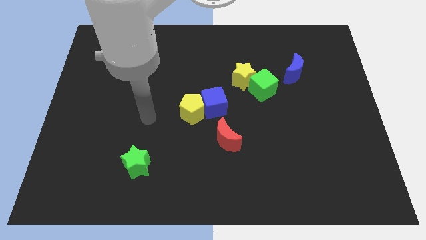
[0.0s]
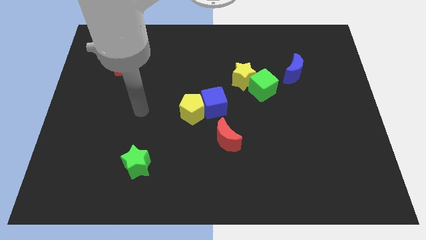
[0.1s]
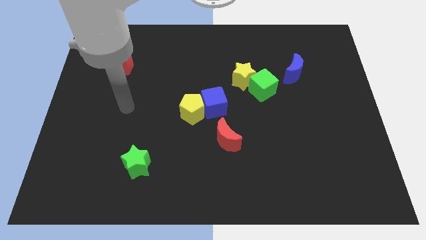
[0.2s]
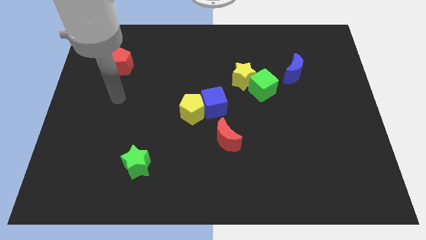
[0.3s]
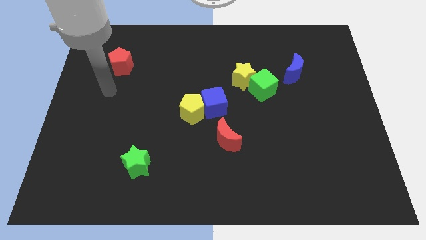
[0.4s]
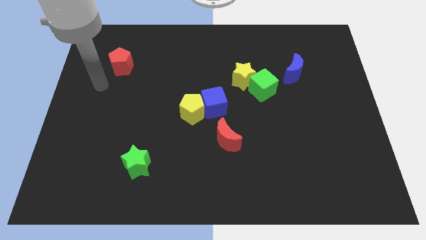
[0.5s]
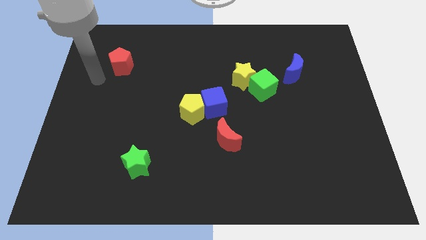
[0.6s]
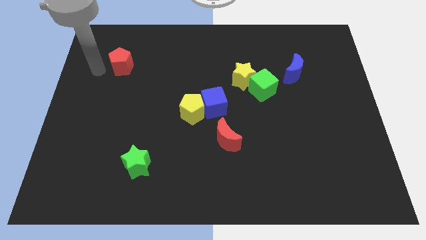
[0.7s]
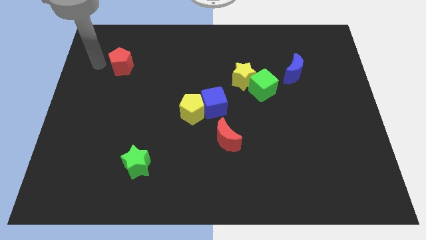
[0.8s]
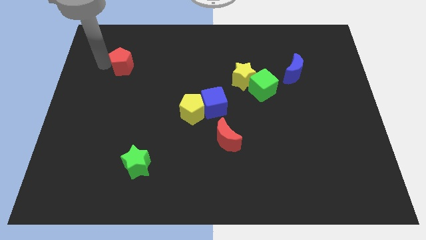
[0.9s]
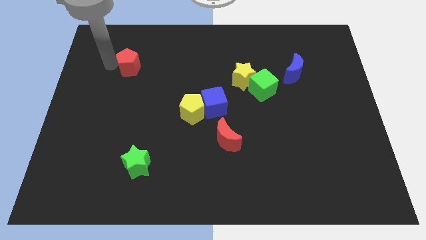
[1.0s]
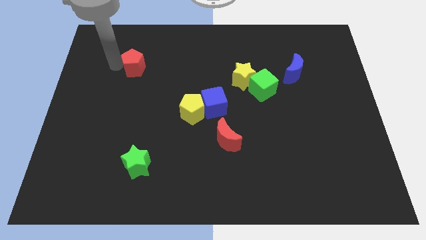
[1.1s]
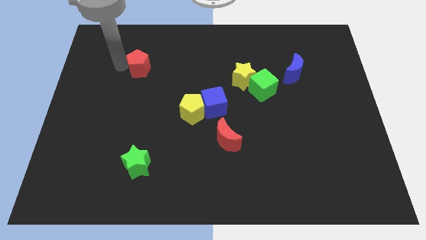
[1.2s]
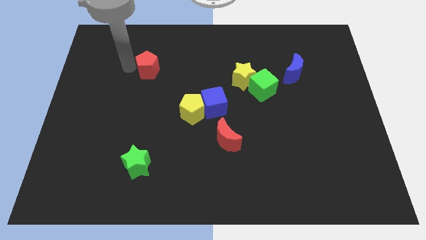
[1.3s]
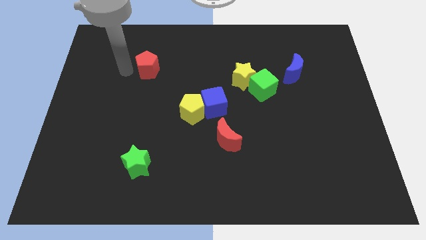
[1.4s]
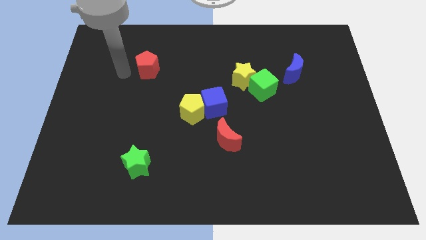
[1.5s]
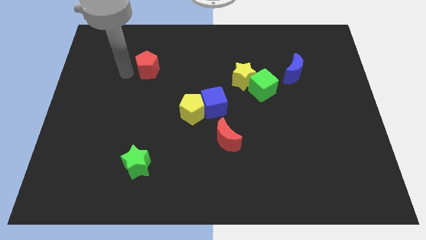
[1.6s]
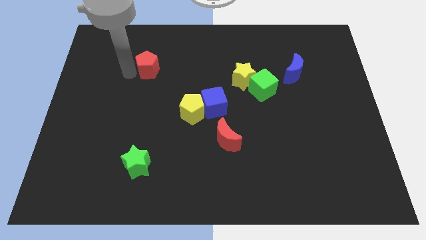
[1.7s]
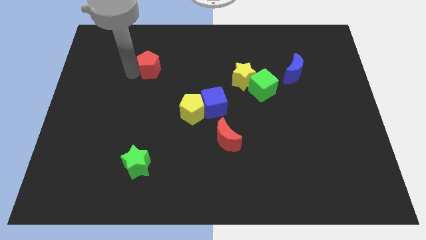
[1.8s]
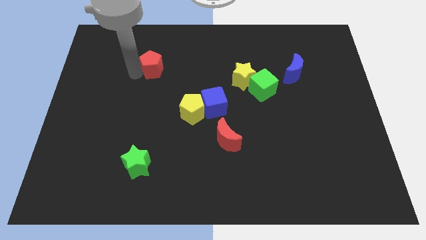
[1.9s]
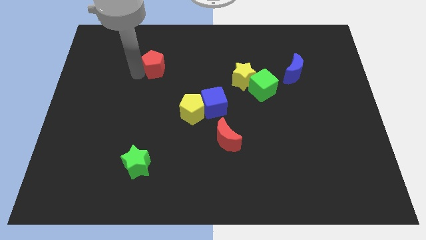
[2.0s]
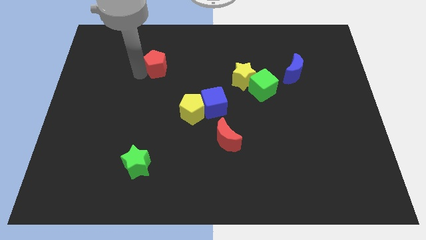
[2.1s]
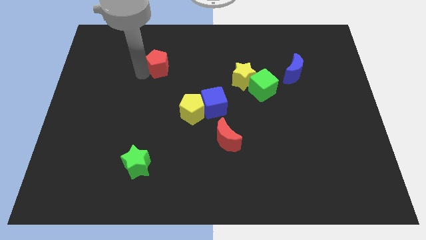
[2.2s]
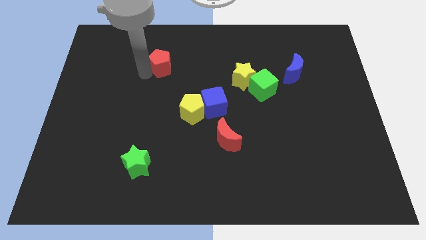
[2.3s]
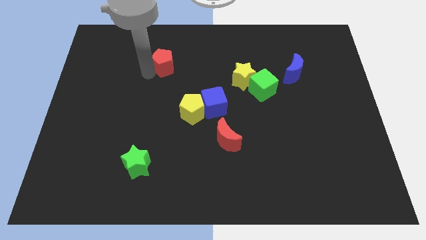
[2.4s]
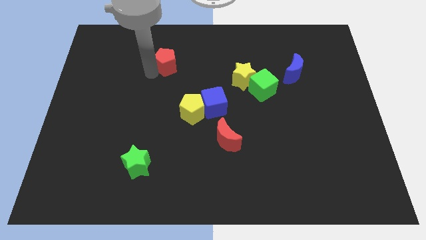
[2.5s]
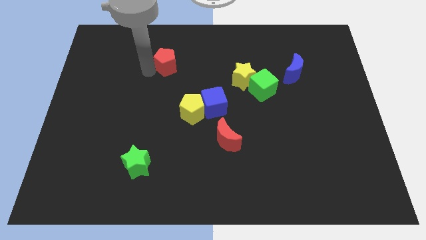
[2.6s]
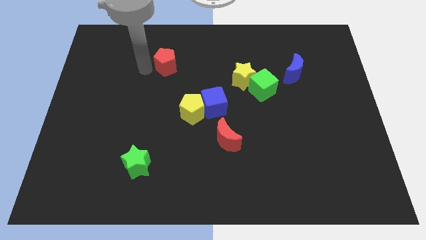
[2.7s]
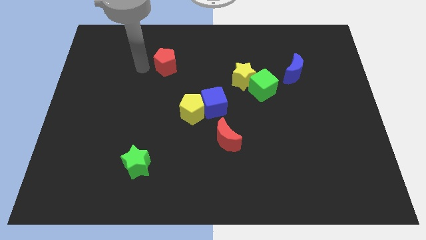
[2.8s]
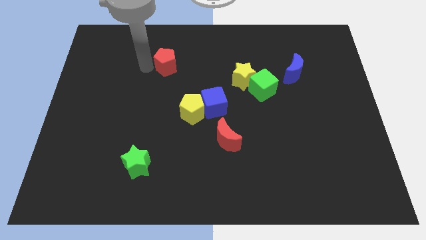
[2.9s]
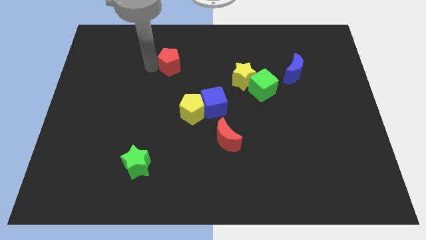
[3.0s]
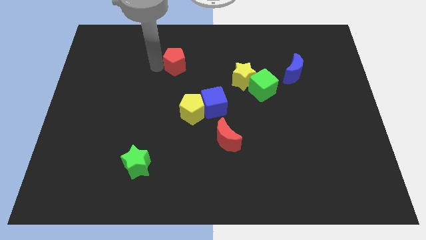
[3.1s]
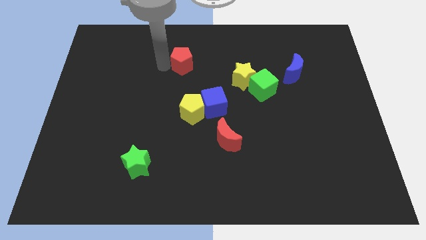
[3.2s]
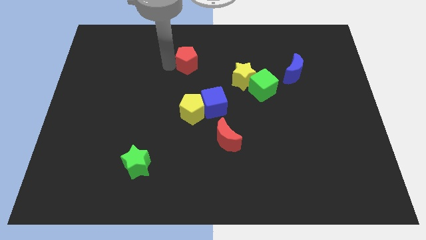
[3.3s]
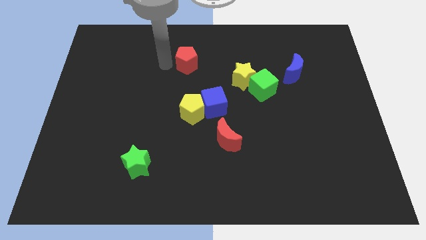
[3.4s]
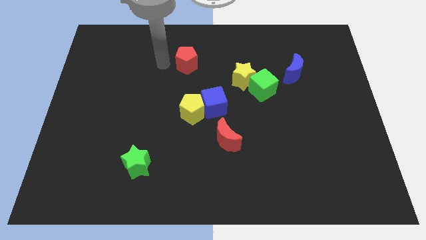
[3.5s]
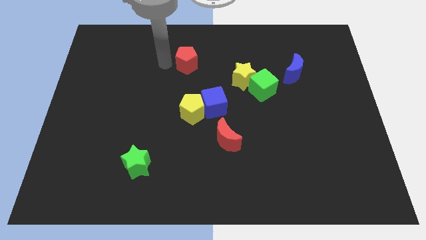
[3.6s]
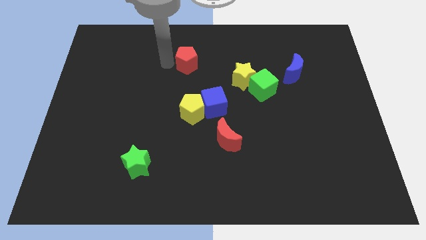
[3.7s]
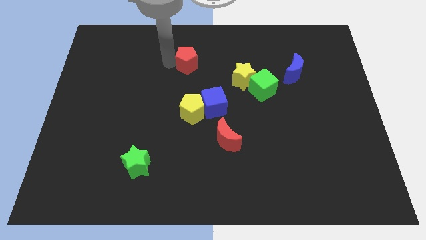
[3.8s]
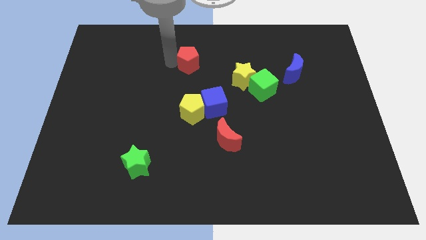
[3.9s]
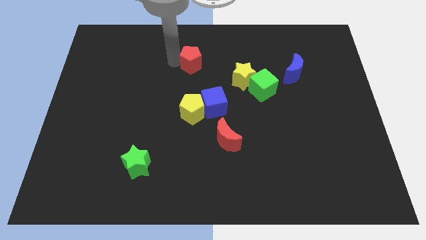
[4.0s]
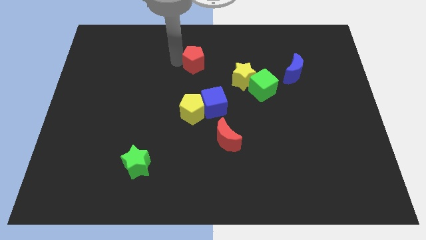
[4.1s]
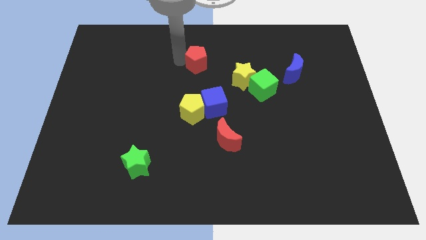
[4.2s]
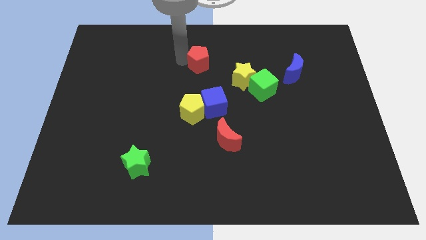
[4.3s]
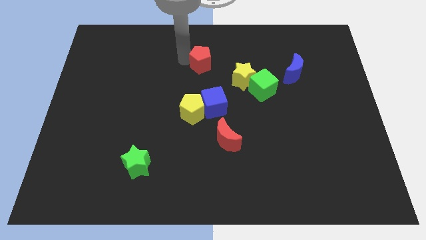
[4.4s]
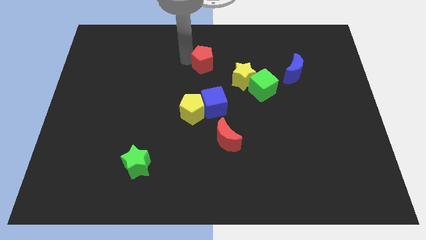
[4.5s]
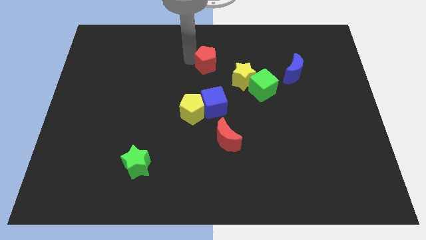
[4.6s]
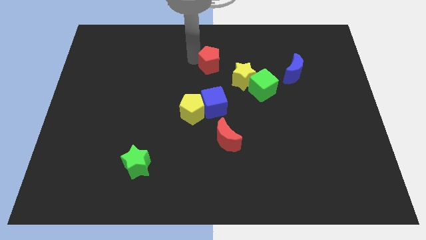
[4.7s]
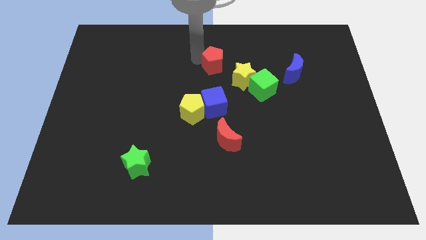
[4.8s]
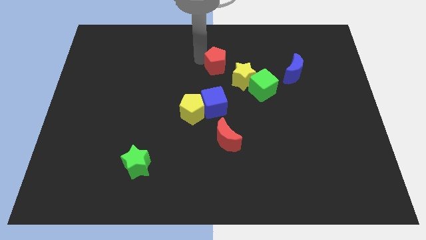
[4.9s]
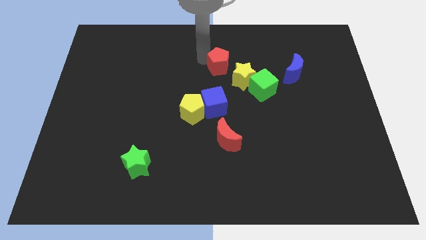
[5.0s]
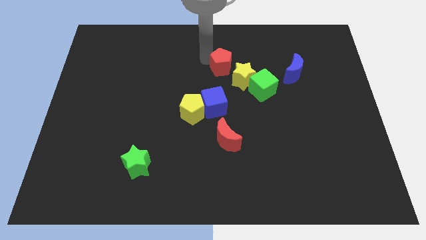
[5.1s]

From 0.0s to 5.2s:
push the red pentagon to the top left of the green cube

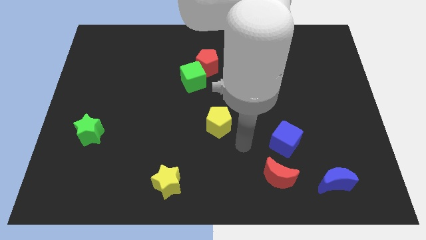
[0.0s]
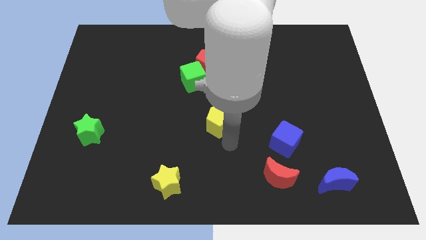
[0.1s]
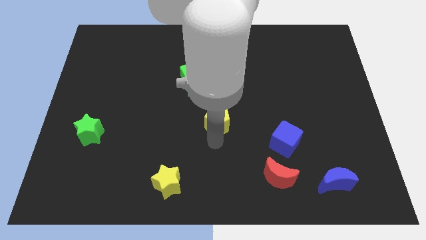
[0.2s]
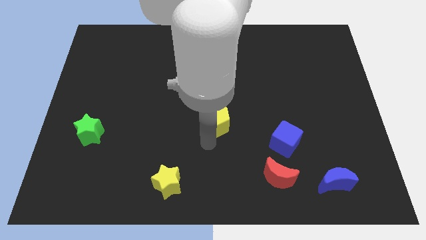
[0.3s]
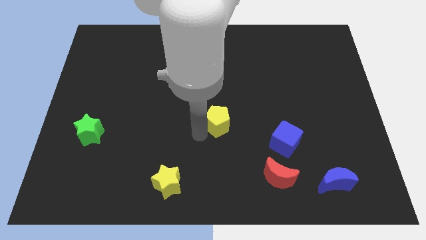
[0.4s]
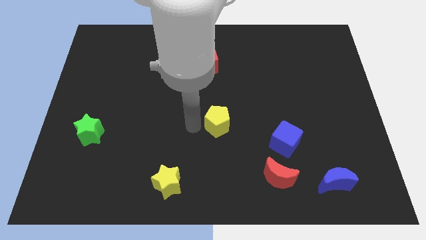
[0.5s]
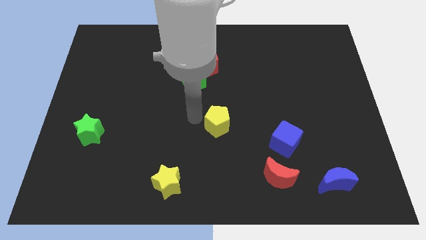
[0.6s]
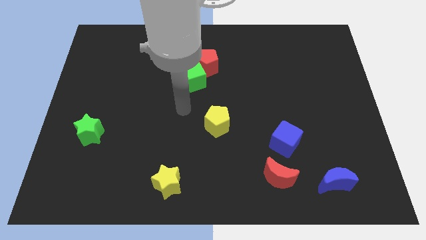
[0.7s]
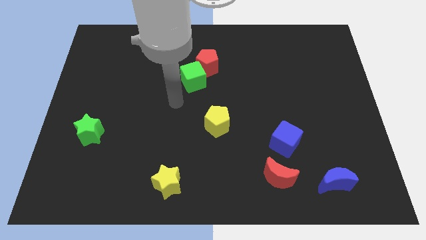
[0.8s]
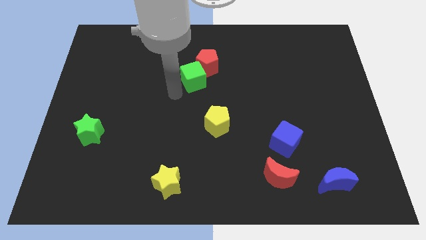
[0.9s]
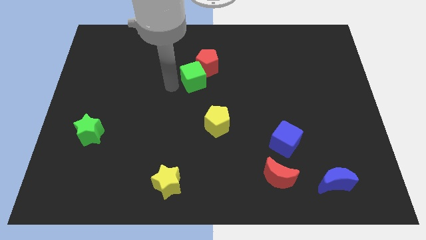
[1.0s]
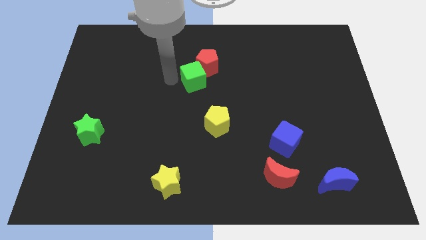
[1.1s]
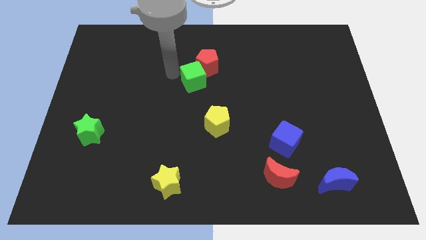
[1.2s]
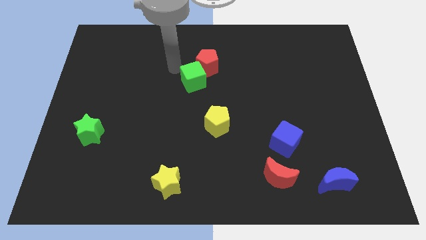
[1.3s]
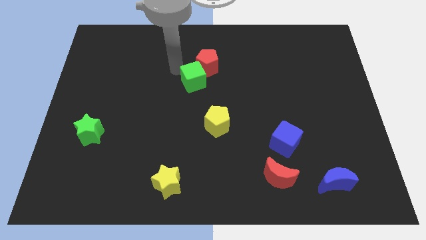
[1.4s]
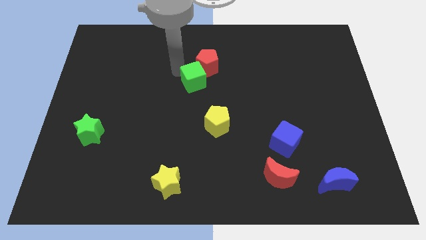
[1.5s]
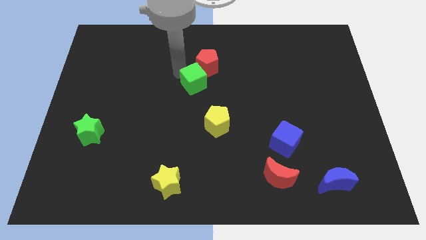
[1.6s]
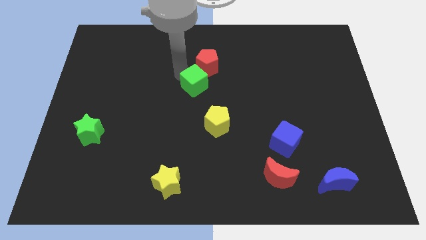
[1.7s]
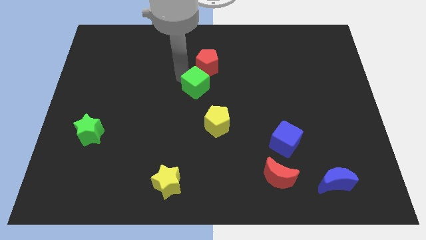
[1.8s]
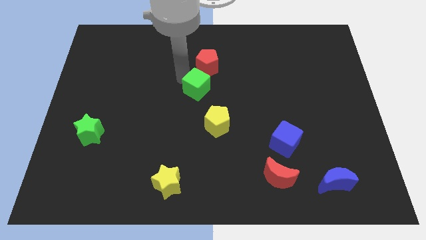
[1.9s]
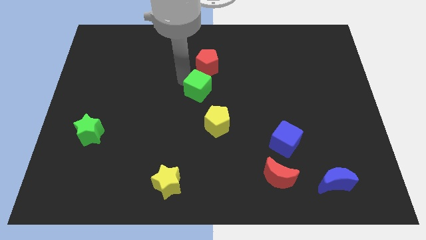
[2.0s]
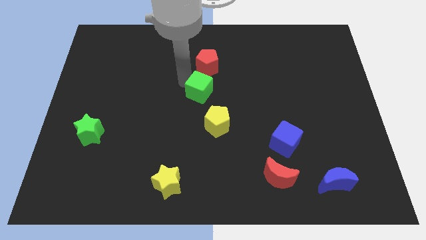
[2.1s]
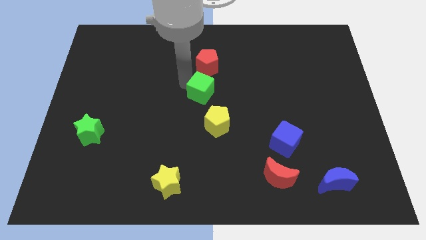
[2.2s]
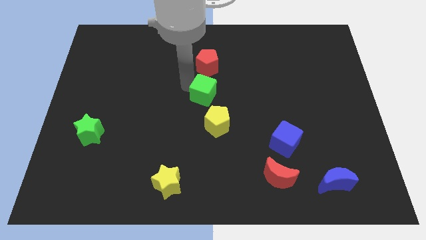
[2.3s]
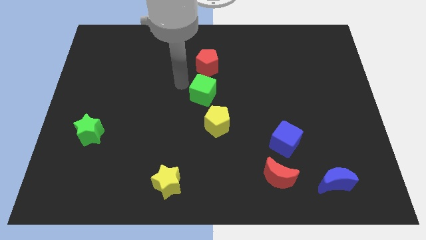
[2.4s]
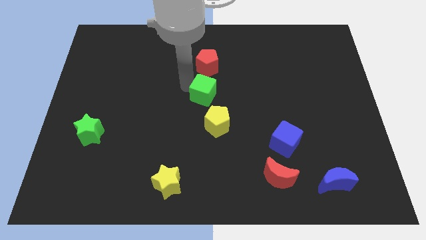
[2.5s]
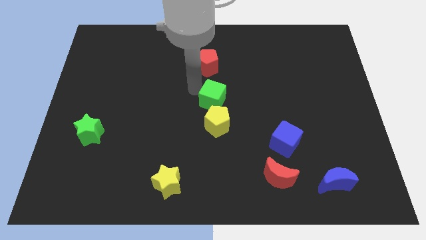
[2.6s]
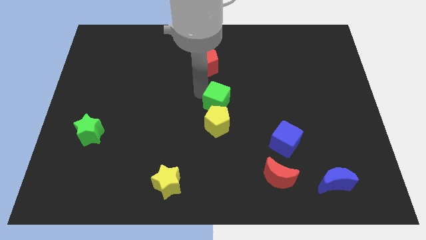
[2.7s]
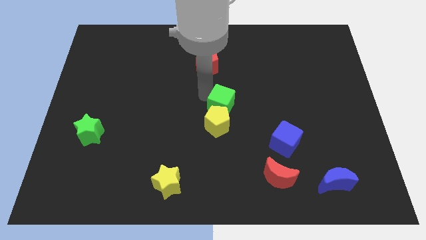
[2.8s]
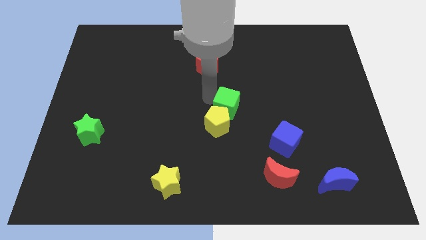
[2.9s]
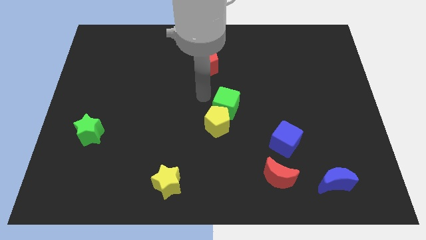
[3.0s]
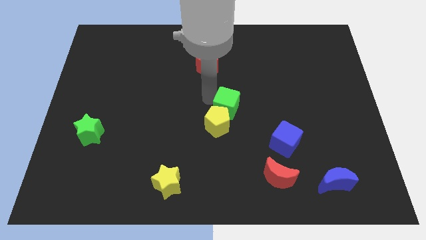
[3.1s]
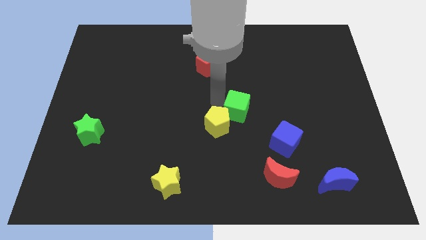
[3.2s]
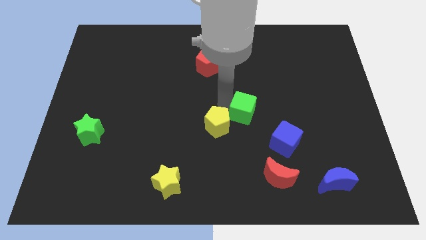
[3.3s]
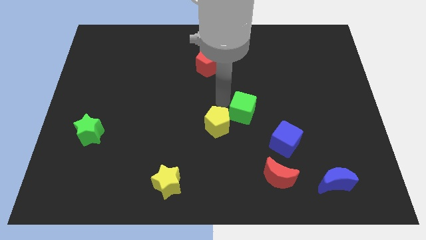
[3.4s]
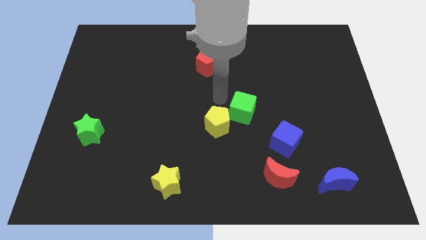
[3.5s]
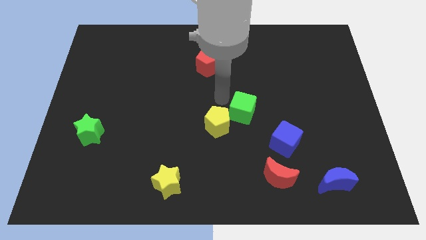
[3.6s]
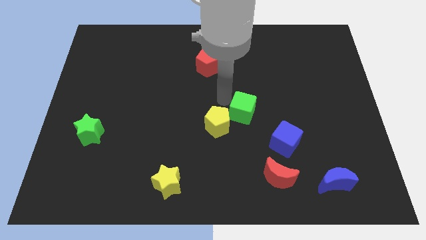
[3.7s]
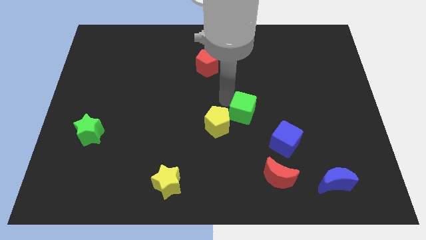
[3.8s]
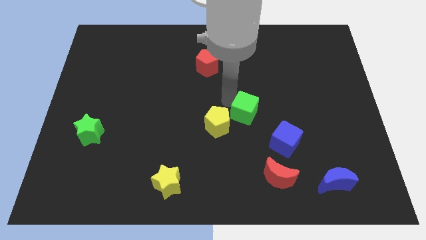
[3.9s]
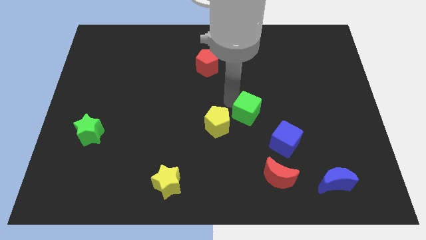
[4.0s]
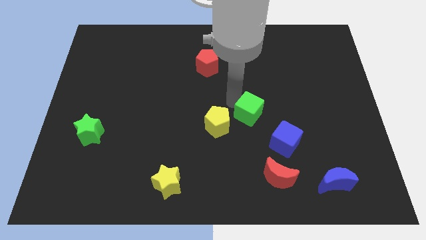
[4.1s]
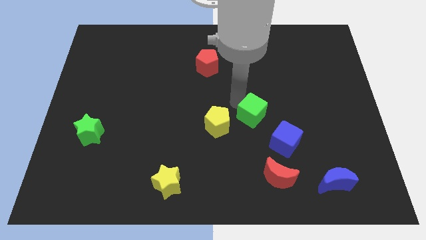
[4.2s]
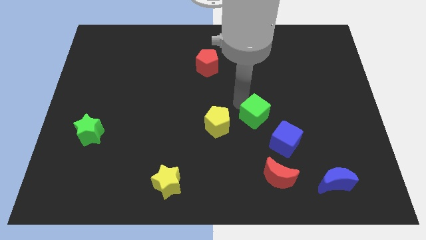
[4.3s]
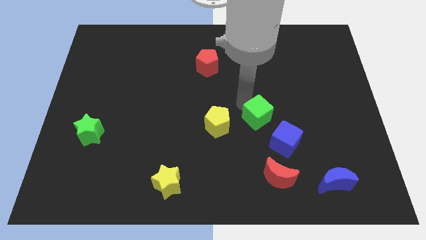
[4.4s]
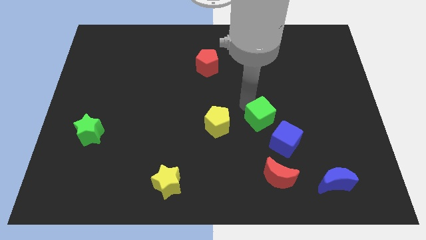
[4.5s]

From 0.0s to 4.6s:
slide the green cube to the top side of the red moon
